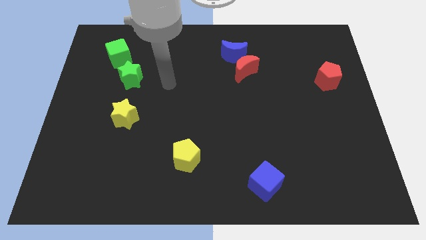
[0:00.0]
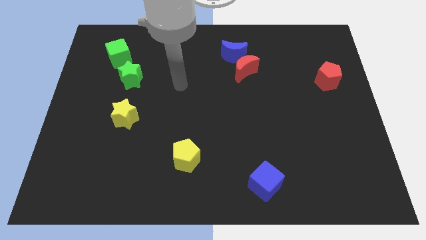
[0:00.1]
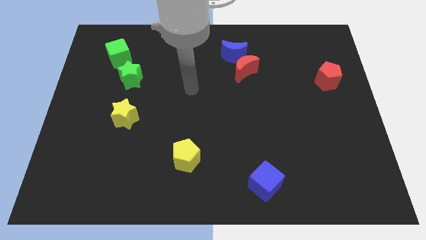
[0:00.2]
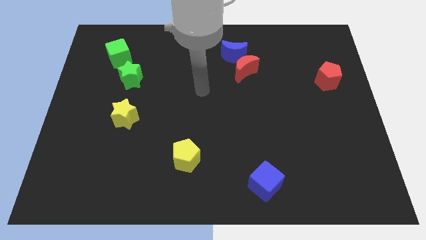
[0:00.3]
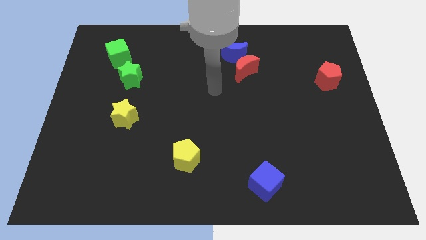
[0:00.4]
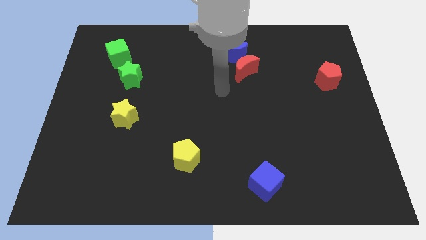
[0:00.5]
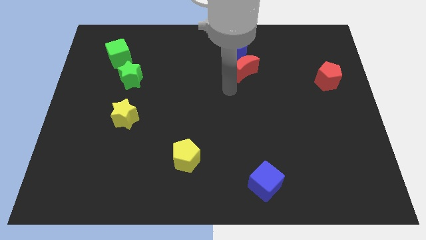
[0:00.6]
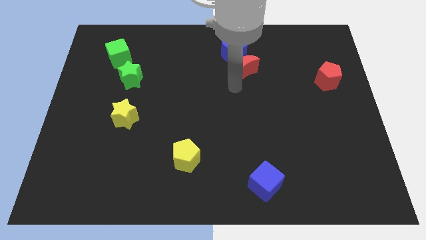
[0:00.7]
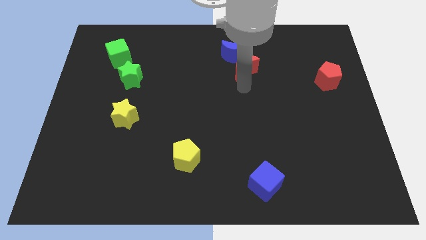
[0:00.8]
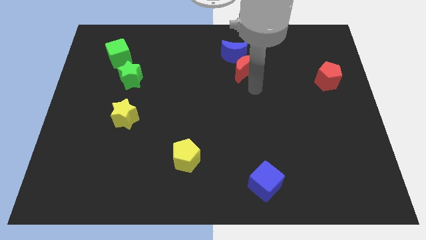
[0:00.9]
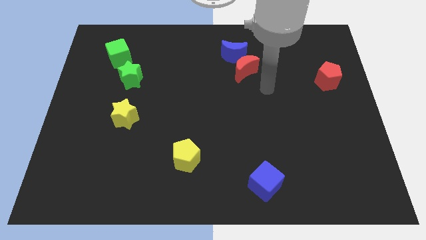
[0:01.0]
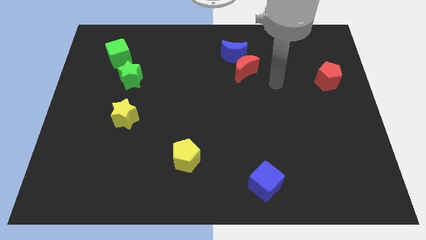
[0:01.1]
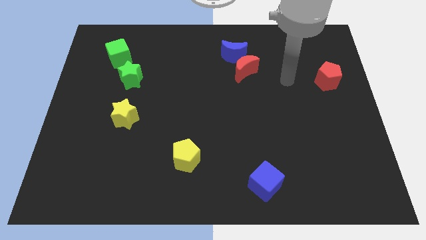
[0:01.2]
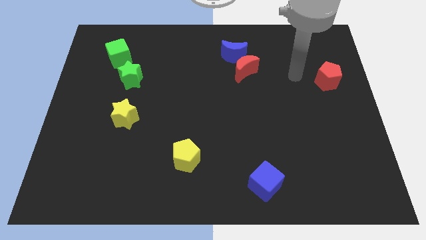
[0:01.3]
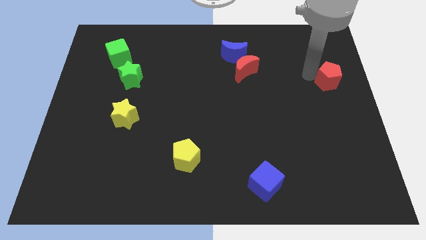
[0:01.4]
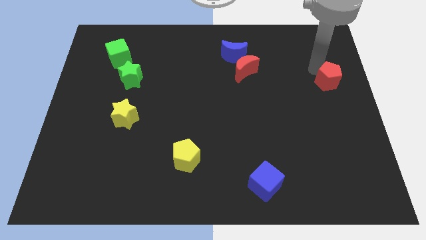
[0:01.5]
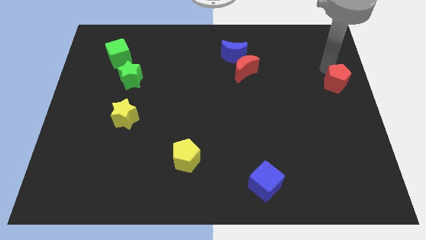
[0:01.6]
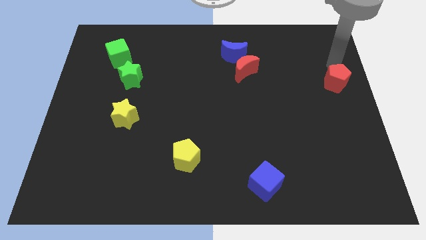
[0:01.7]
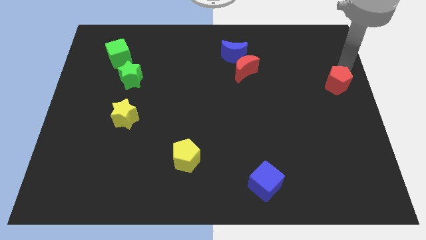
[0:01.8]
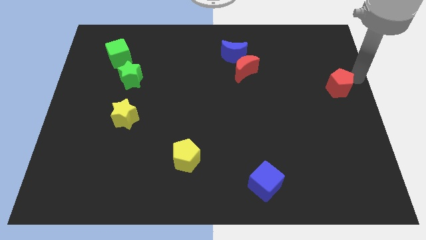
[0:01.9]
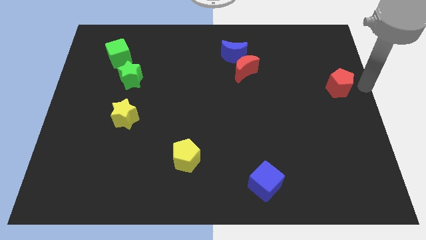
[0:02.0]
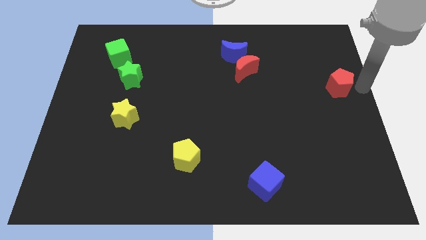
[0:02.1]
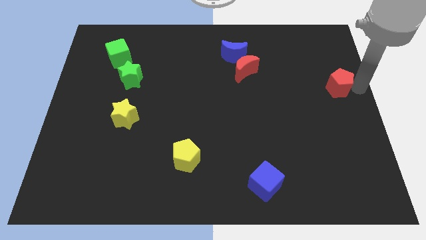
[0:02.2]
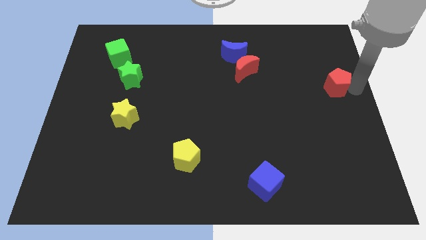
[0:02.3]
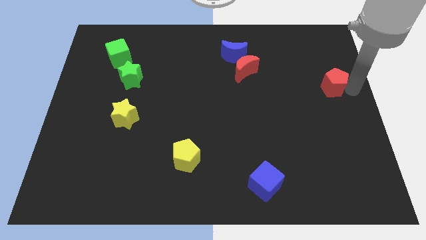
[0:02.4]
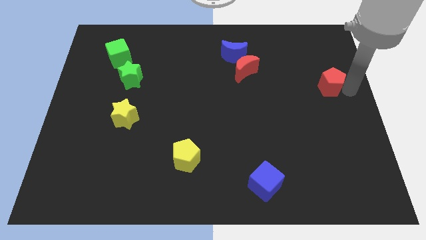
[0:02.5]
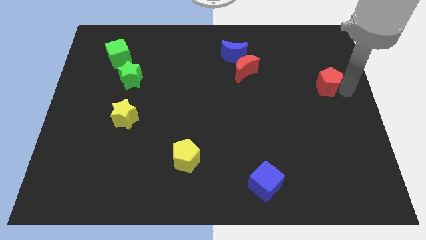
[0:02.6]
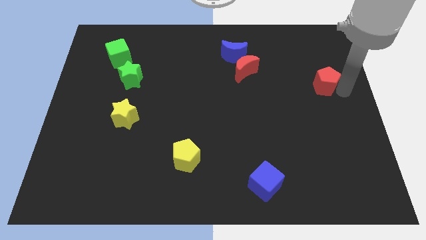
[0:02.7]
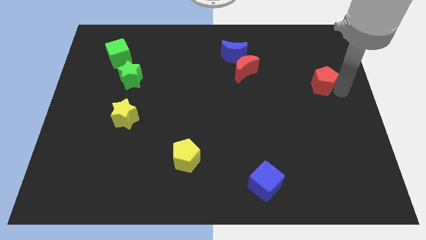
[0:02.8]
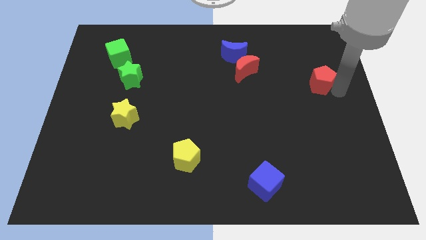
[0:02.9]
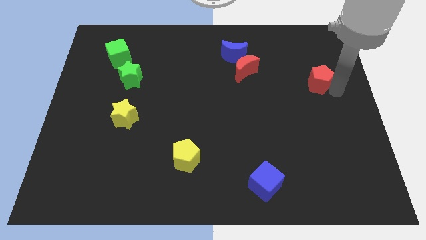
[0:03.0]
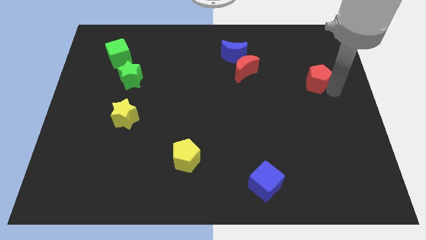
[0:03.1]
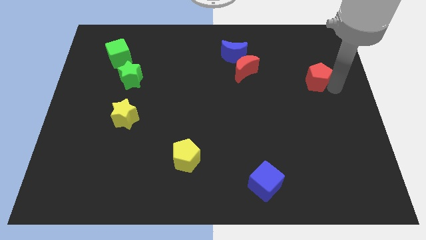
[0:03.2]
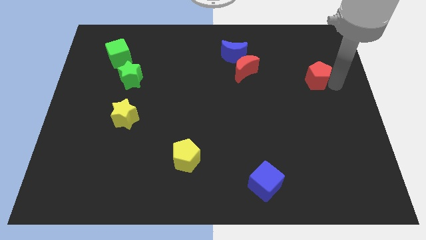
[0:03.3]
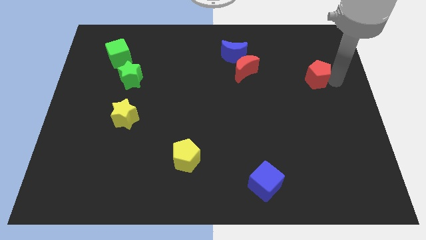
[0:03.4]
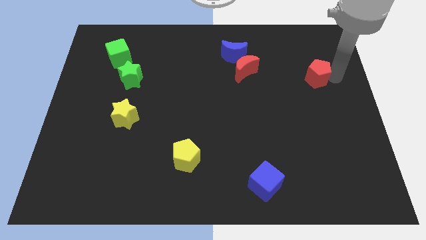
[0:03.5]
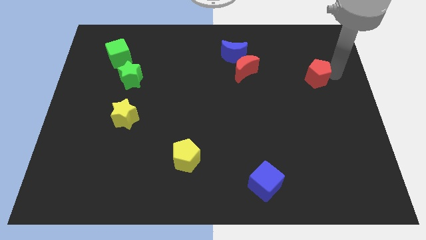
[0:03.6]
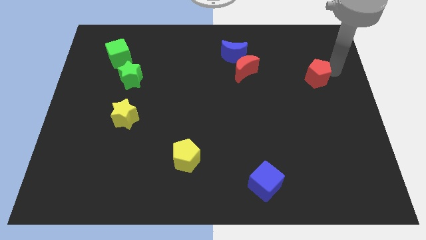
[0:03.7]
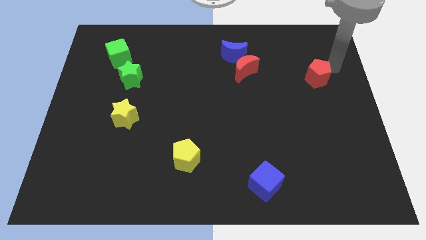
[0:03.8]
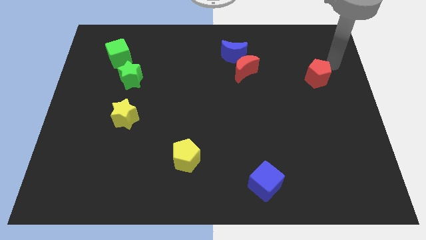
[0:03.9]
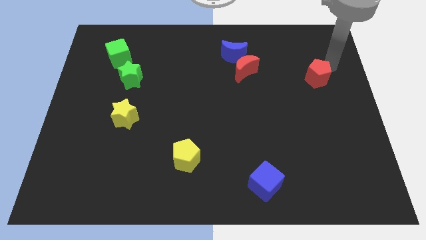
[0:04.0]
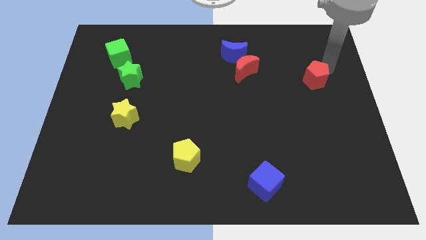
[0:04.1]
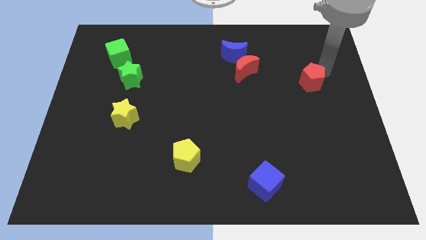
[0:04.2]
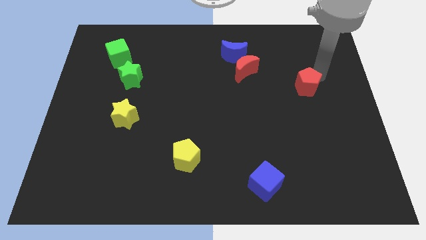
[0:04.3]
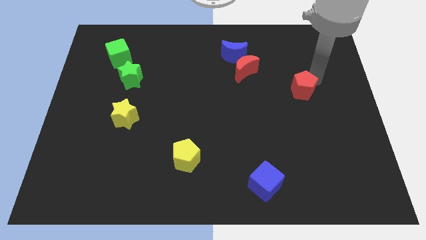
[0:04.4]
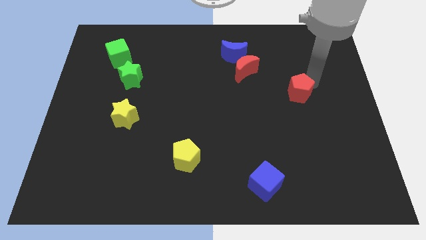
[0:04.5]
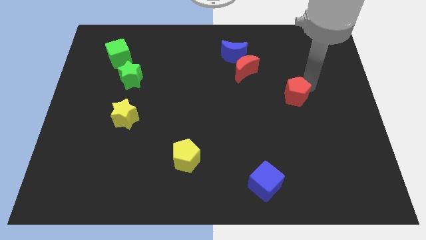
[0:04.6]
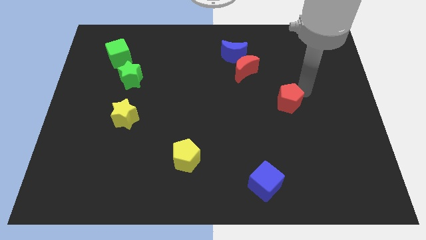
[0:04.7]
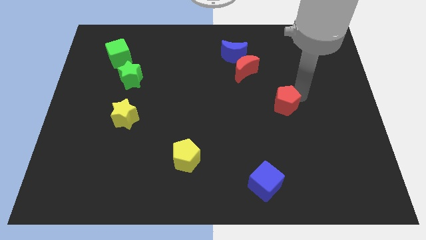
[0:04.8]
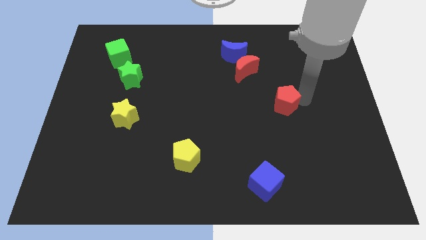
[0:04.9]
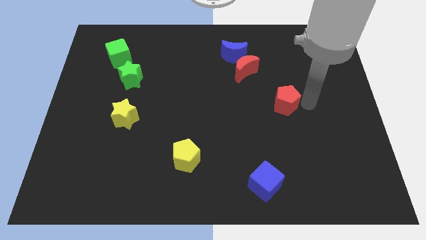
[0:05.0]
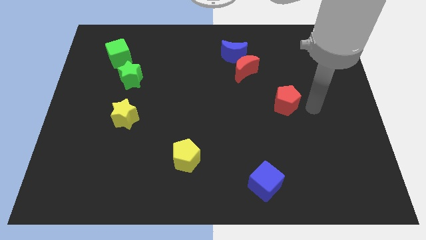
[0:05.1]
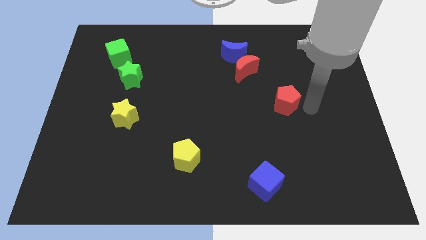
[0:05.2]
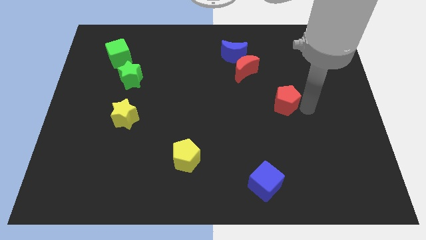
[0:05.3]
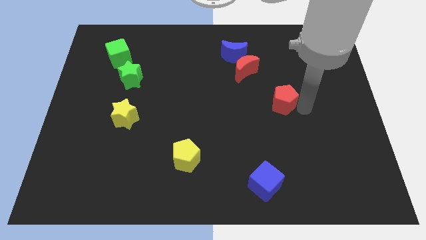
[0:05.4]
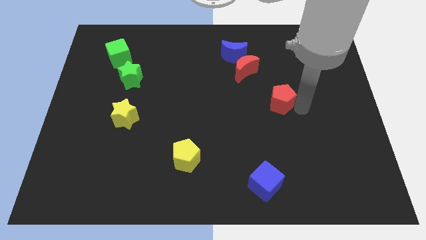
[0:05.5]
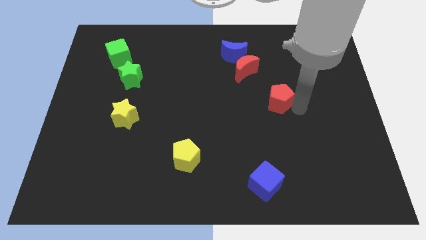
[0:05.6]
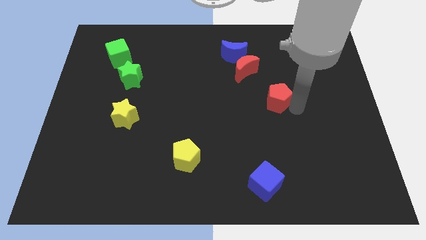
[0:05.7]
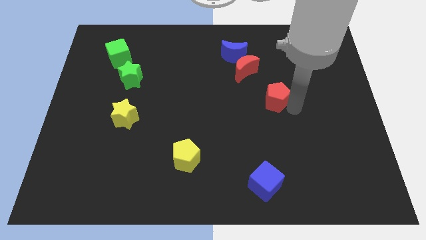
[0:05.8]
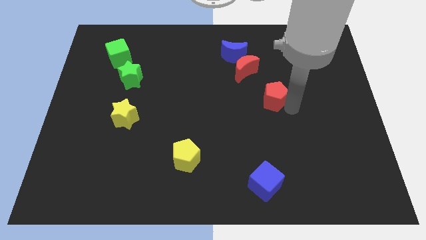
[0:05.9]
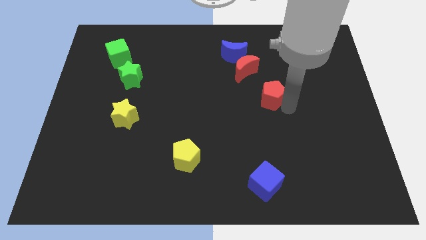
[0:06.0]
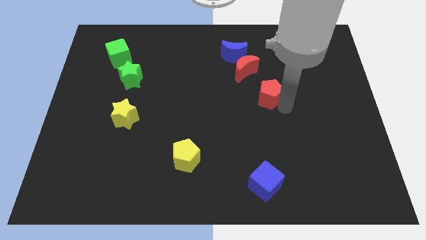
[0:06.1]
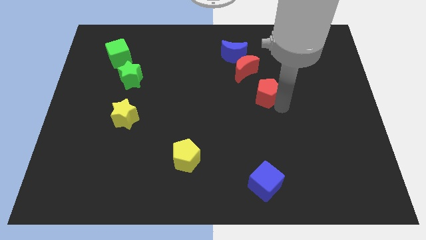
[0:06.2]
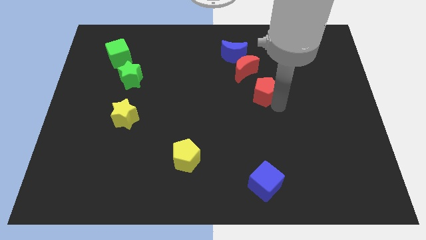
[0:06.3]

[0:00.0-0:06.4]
put the red pentagon to the middle of the board

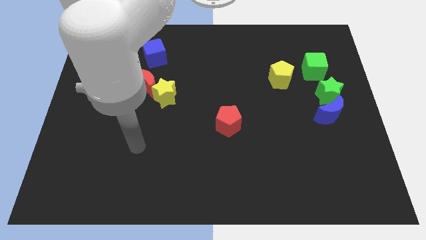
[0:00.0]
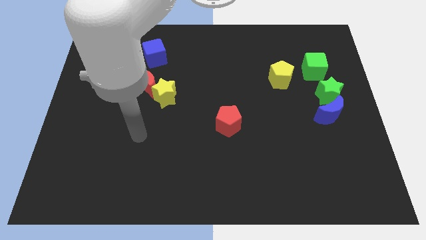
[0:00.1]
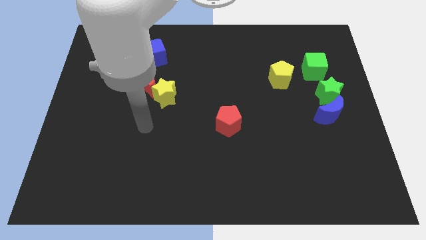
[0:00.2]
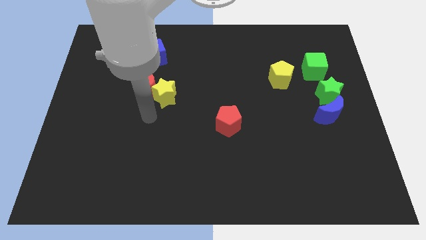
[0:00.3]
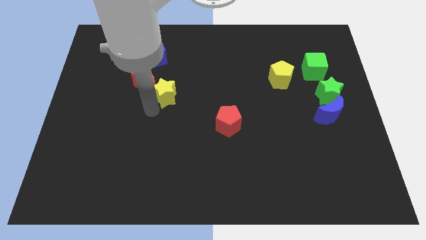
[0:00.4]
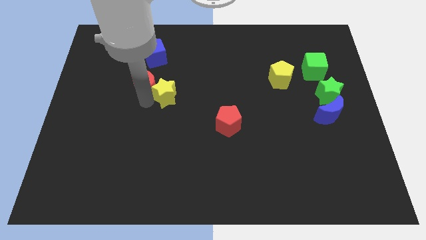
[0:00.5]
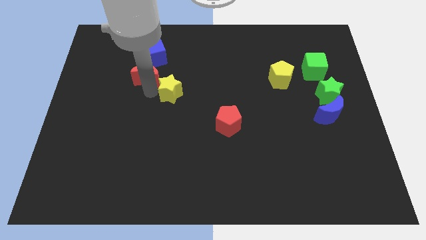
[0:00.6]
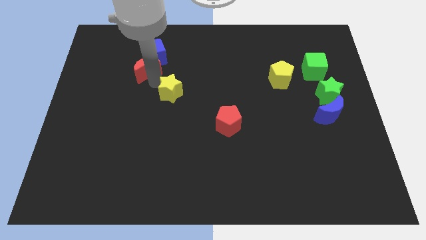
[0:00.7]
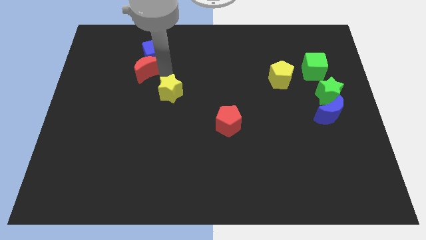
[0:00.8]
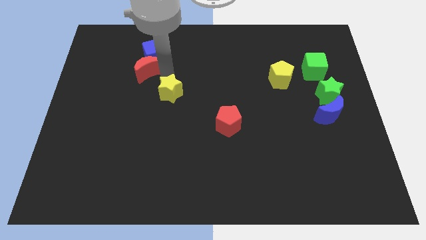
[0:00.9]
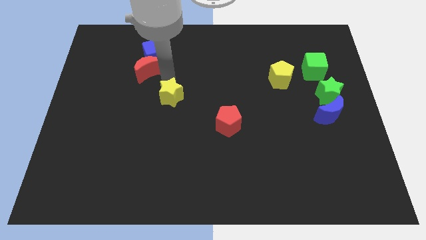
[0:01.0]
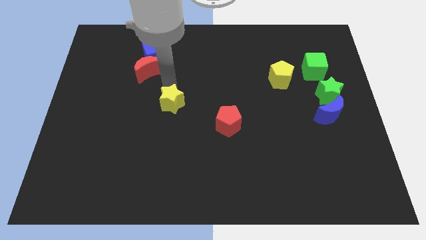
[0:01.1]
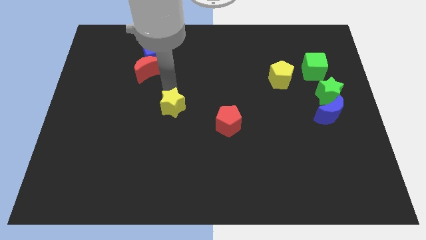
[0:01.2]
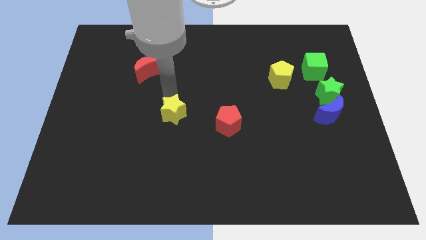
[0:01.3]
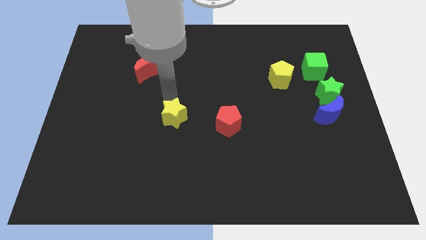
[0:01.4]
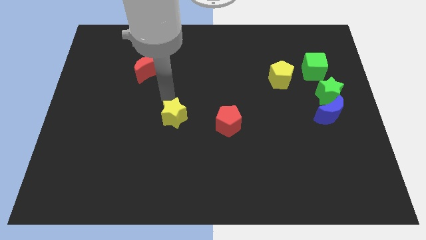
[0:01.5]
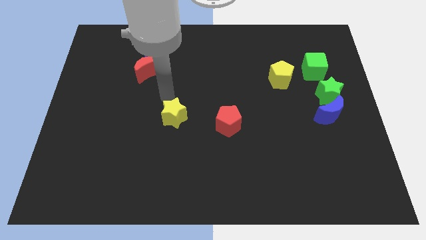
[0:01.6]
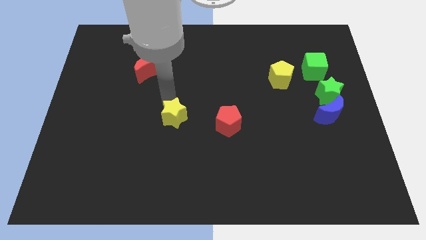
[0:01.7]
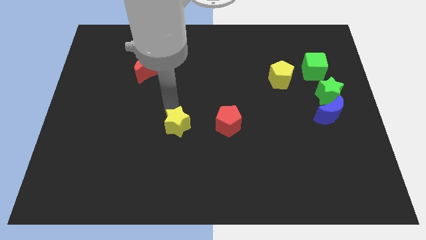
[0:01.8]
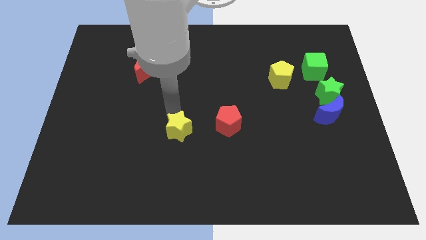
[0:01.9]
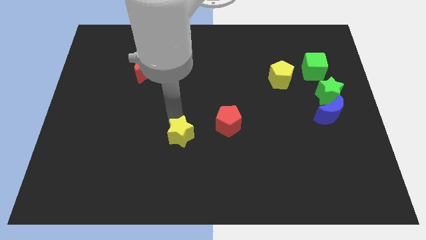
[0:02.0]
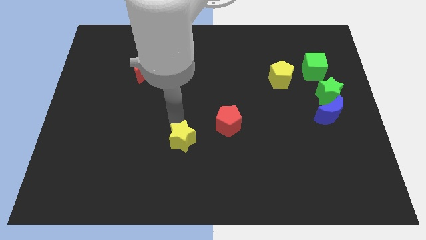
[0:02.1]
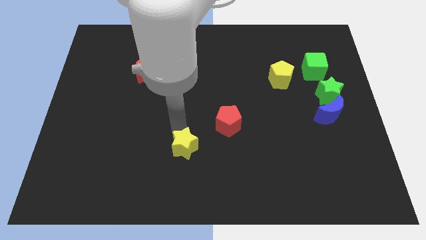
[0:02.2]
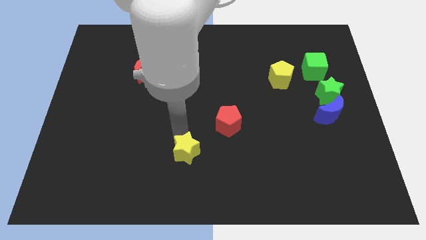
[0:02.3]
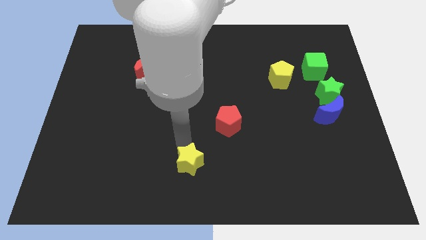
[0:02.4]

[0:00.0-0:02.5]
move the yellow star to the bottom
